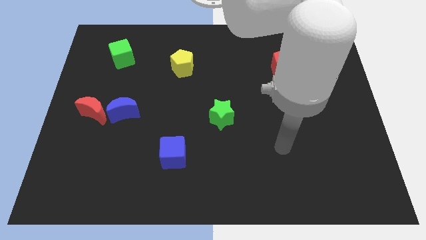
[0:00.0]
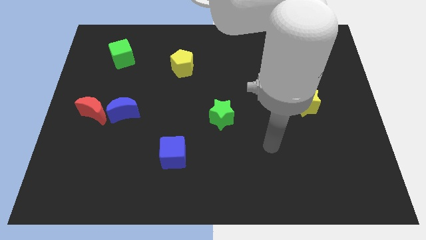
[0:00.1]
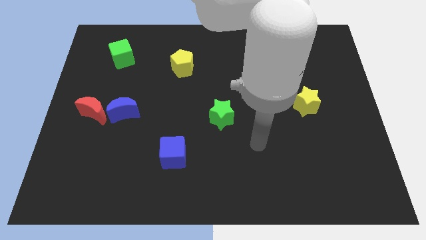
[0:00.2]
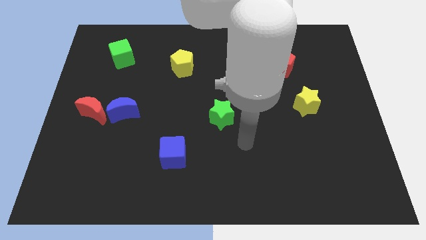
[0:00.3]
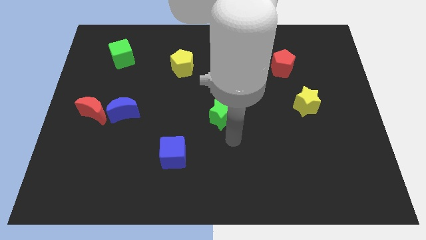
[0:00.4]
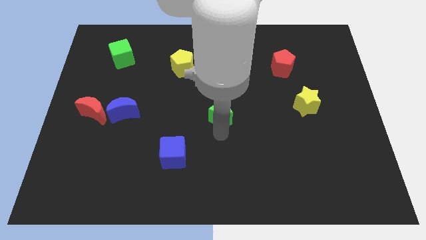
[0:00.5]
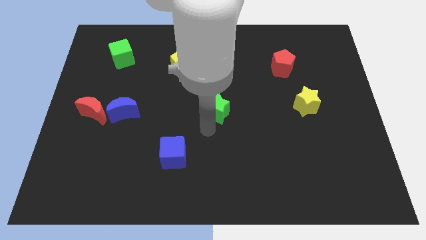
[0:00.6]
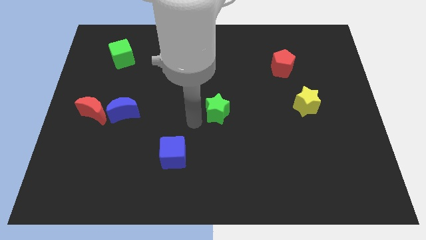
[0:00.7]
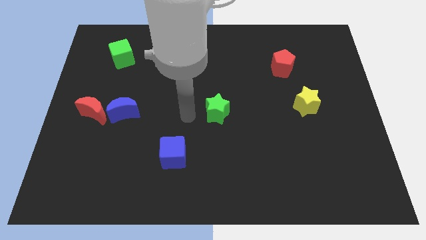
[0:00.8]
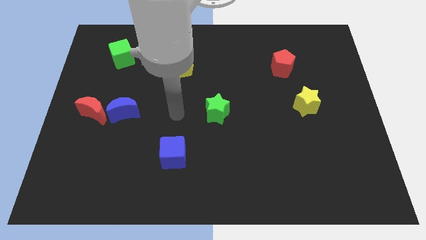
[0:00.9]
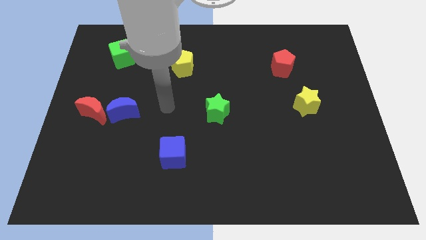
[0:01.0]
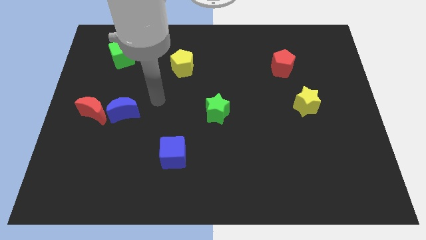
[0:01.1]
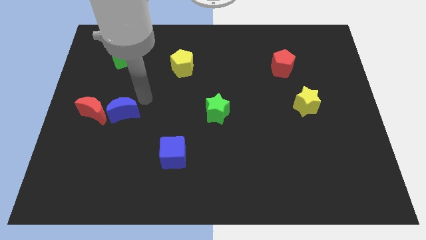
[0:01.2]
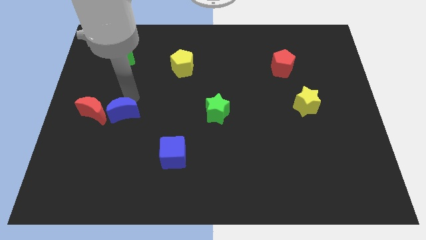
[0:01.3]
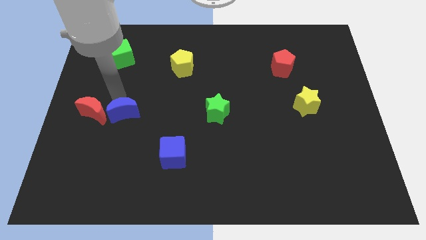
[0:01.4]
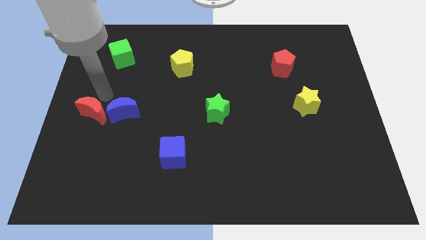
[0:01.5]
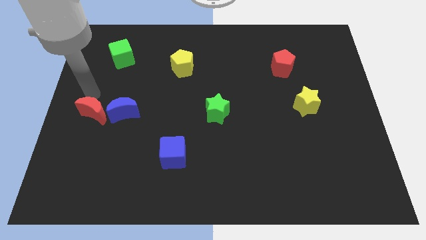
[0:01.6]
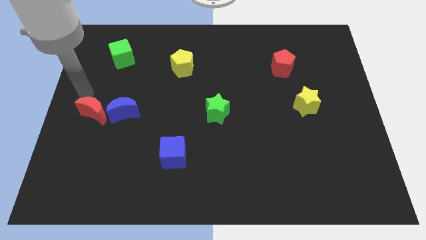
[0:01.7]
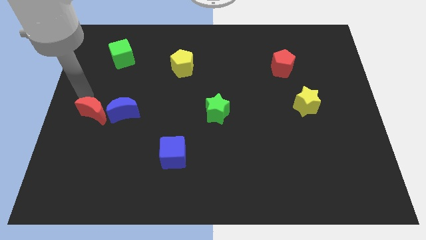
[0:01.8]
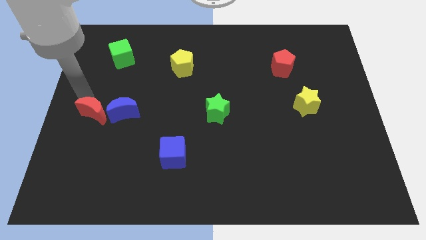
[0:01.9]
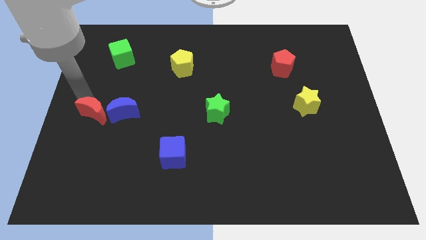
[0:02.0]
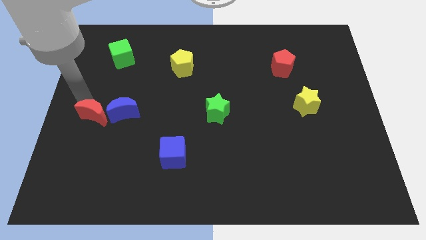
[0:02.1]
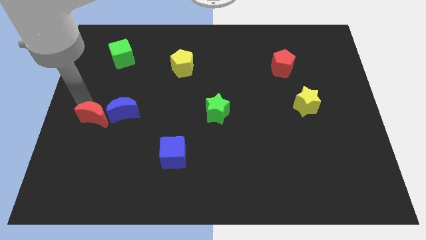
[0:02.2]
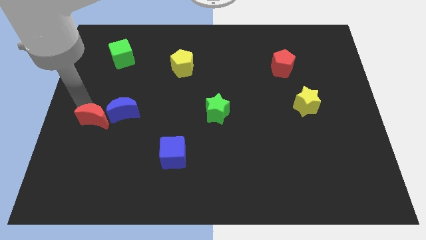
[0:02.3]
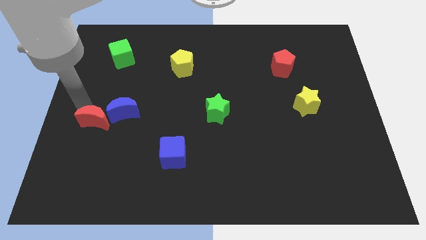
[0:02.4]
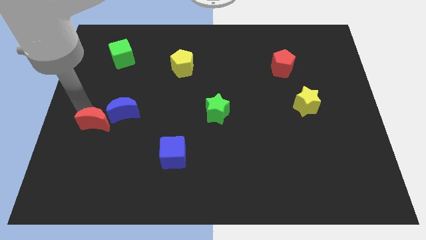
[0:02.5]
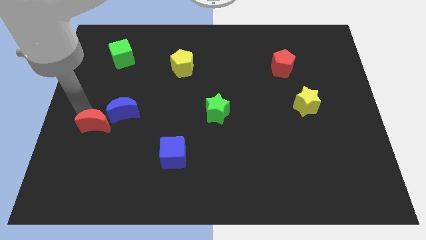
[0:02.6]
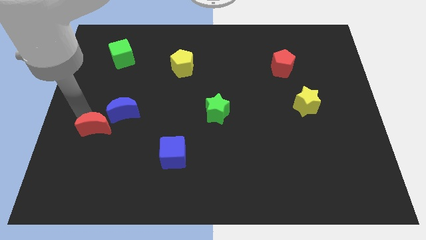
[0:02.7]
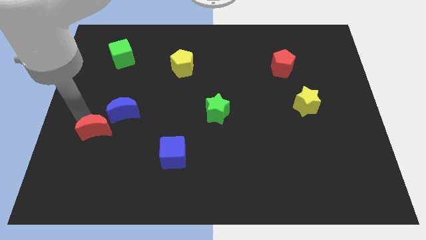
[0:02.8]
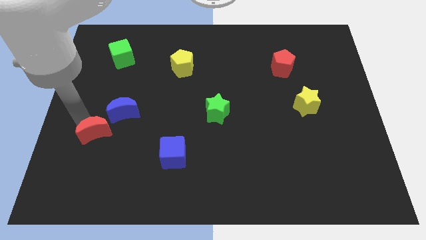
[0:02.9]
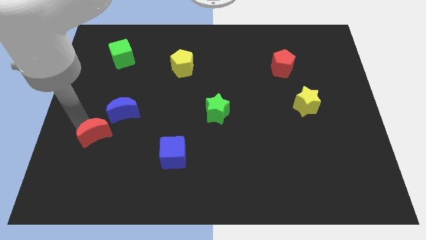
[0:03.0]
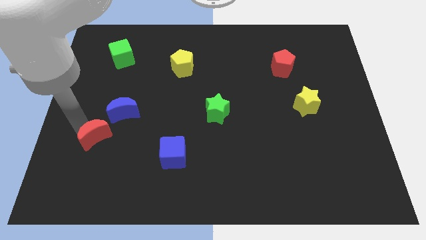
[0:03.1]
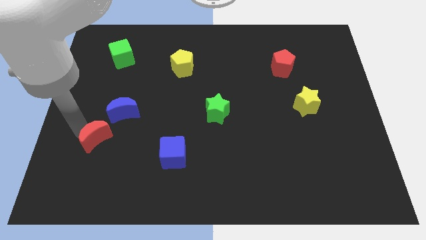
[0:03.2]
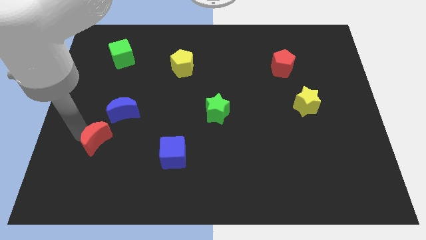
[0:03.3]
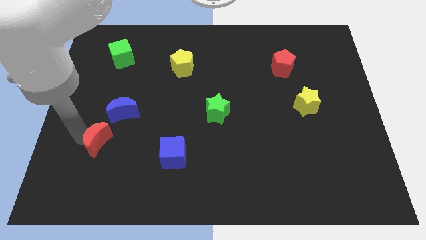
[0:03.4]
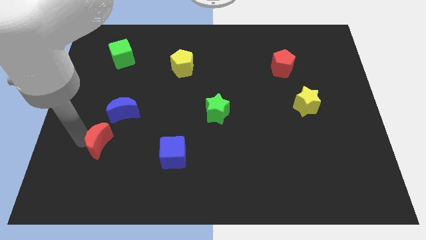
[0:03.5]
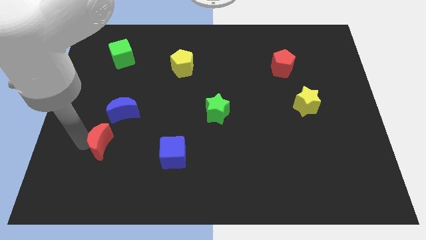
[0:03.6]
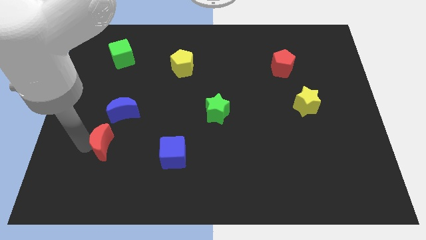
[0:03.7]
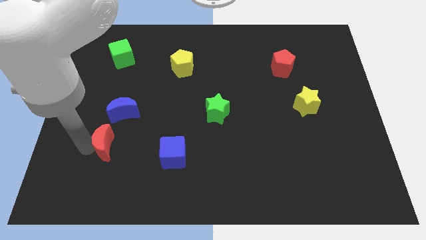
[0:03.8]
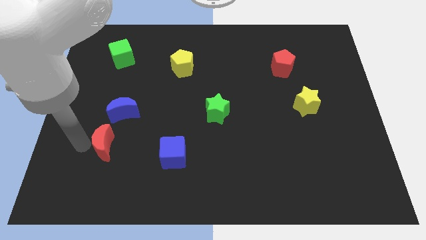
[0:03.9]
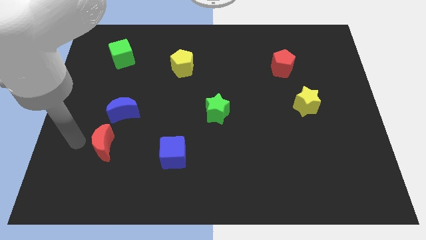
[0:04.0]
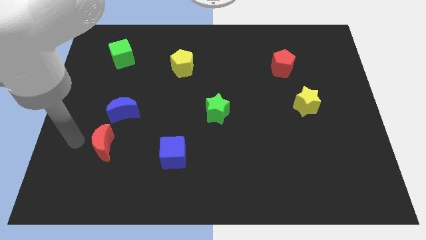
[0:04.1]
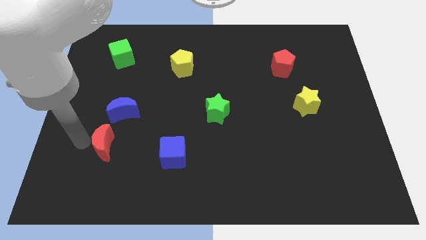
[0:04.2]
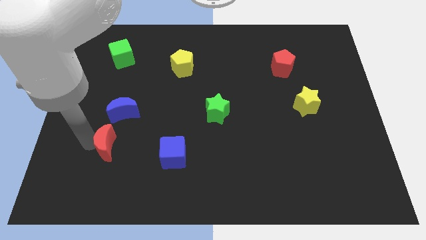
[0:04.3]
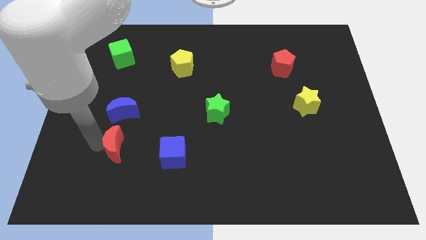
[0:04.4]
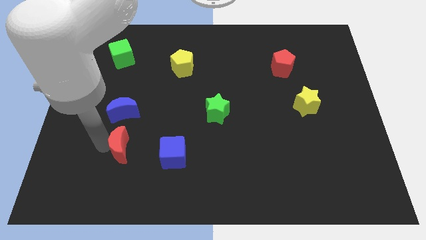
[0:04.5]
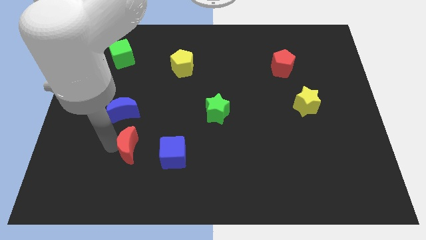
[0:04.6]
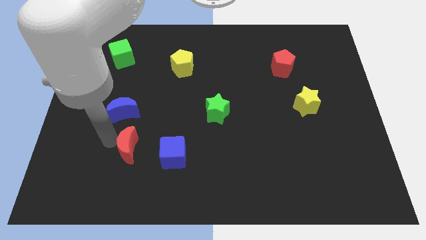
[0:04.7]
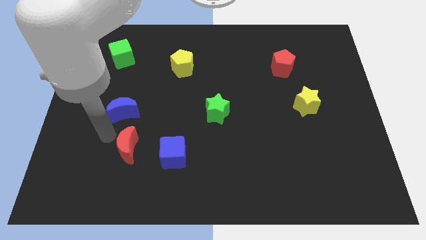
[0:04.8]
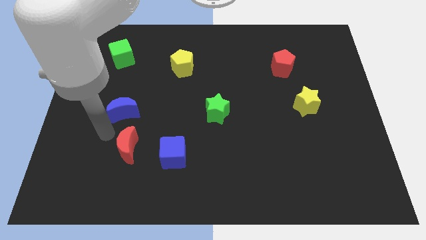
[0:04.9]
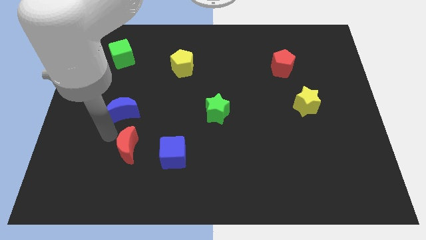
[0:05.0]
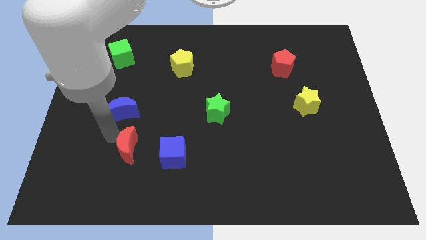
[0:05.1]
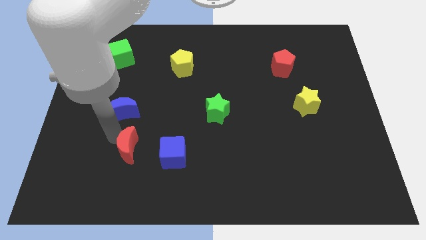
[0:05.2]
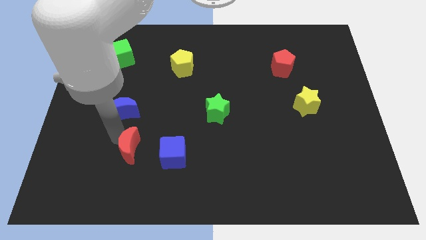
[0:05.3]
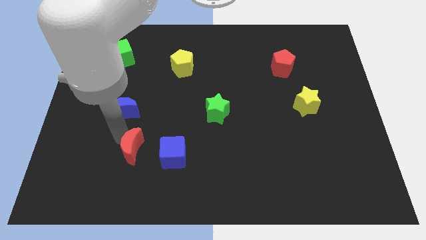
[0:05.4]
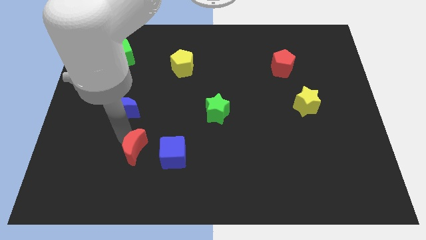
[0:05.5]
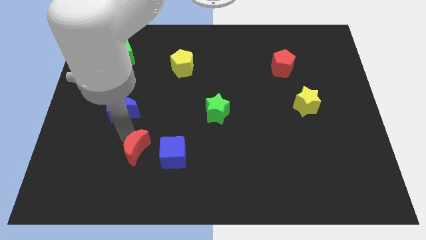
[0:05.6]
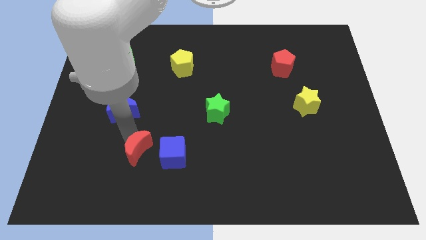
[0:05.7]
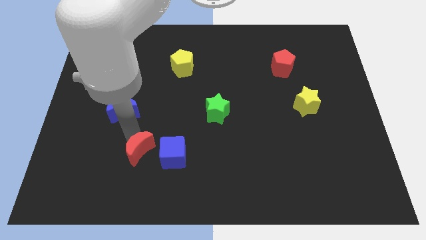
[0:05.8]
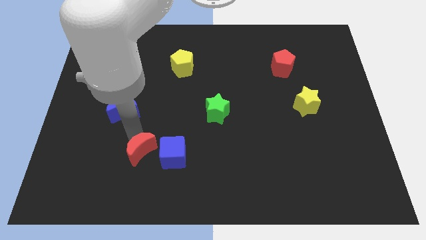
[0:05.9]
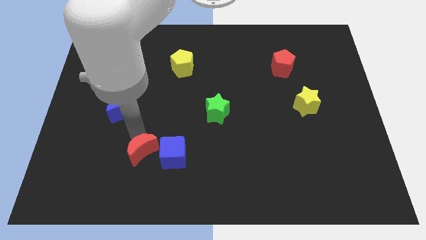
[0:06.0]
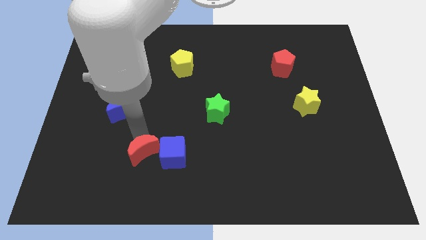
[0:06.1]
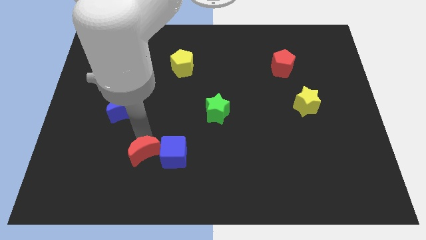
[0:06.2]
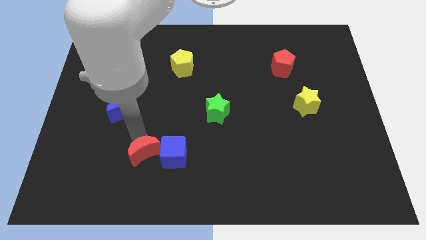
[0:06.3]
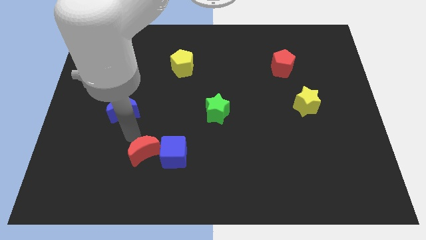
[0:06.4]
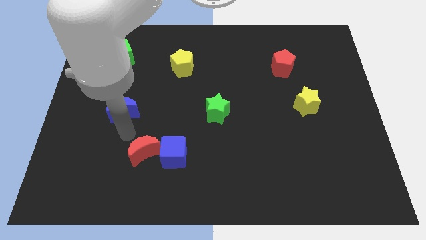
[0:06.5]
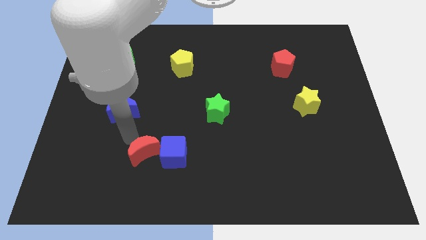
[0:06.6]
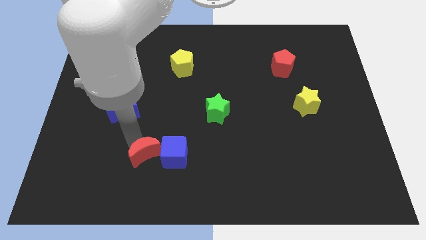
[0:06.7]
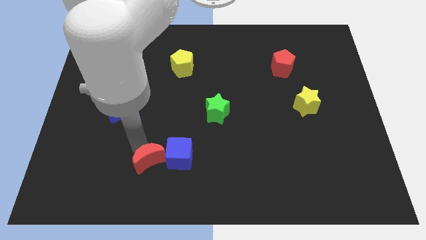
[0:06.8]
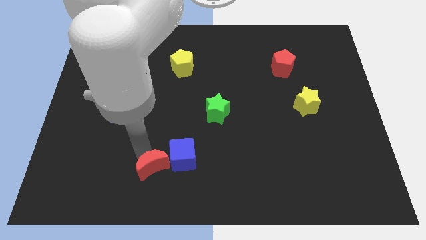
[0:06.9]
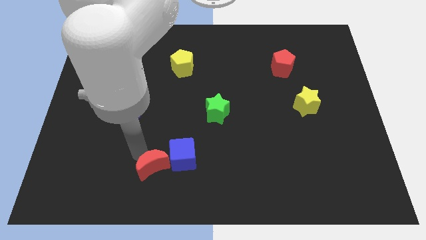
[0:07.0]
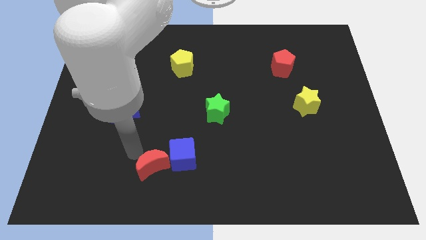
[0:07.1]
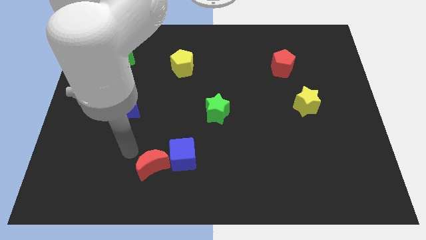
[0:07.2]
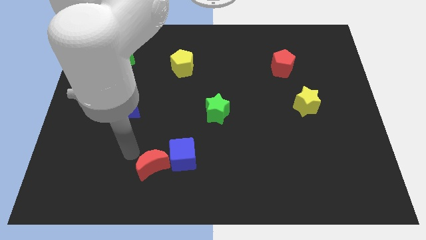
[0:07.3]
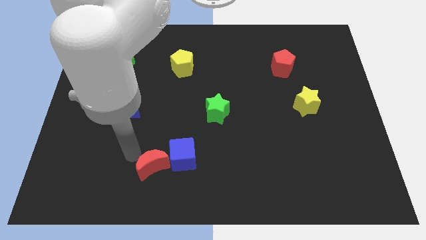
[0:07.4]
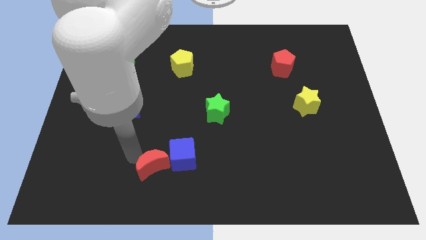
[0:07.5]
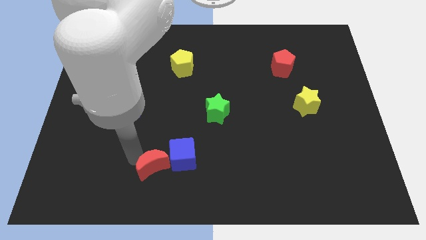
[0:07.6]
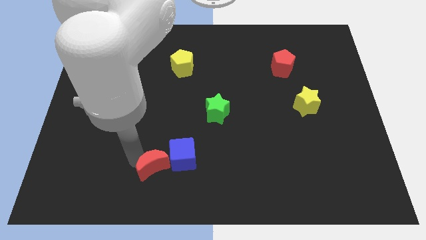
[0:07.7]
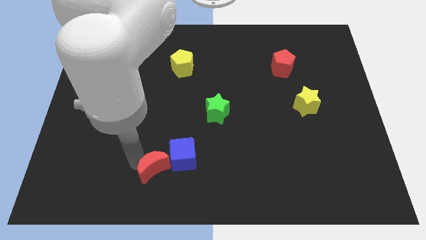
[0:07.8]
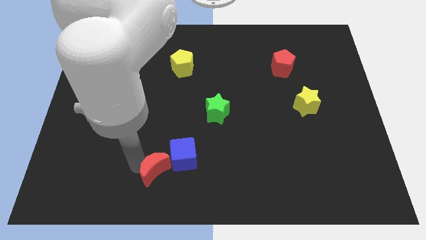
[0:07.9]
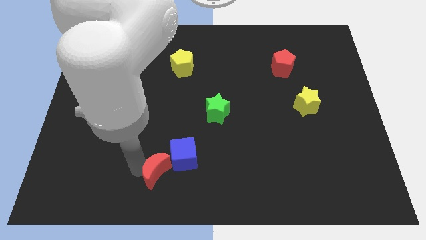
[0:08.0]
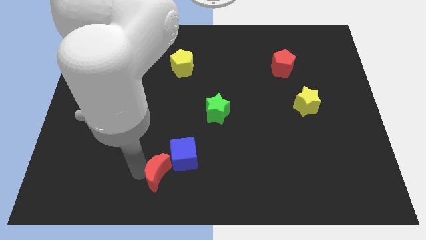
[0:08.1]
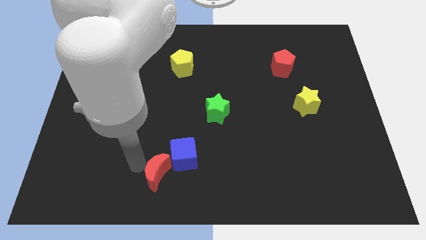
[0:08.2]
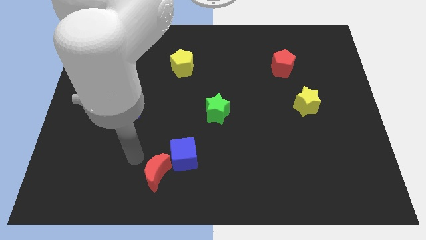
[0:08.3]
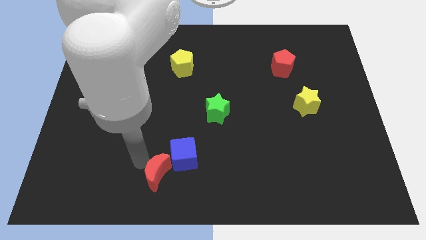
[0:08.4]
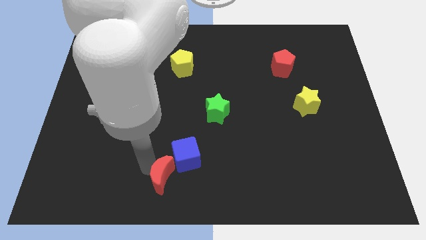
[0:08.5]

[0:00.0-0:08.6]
push the red moon to the bottom side
